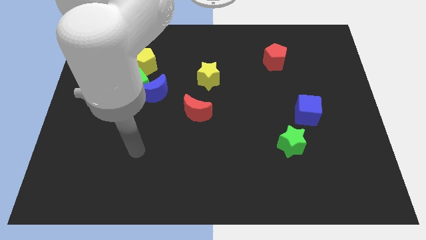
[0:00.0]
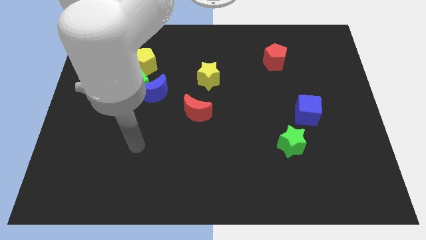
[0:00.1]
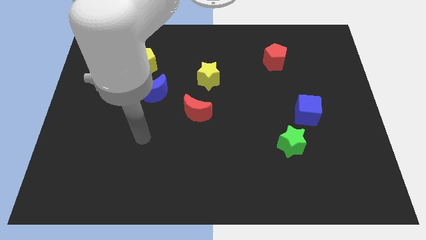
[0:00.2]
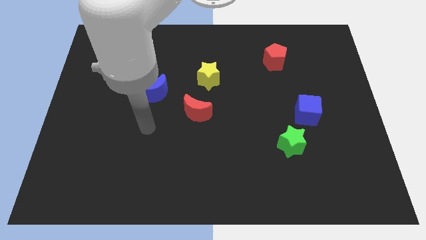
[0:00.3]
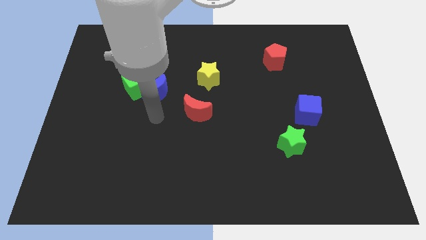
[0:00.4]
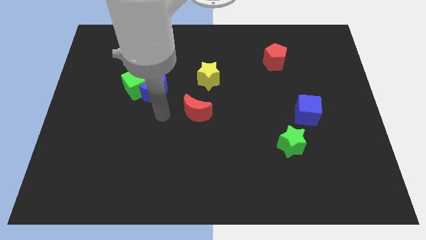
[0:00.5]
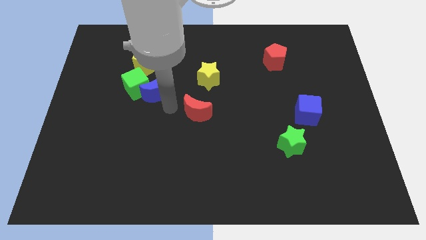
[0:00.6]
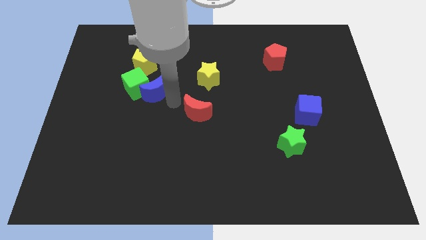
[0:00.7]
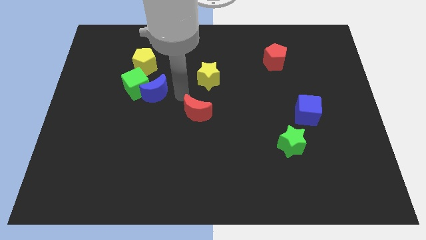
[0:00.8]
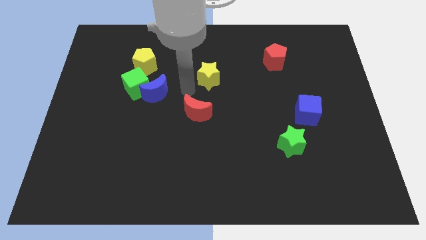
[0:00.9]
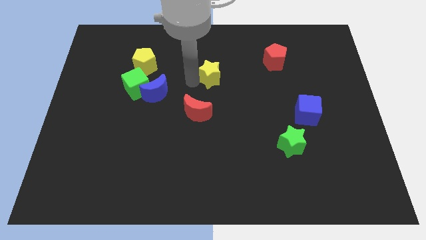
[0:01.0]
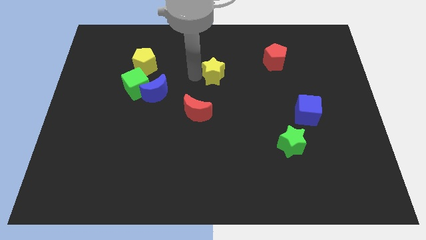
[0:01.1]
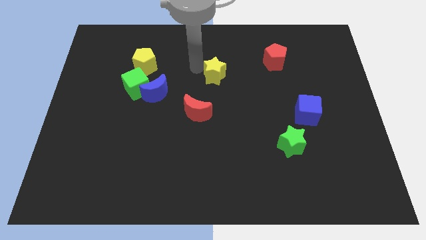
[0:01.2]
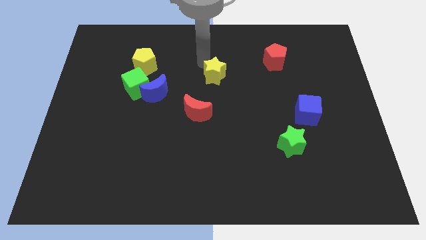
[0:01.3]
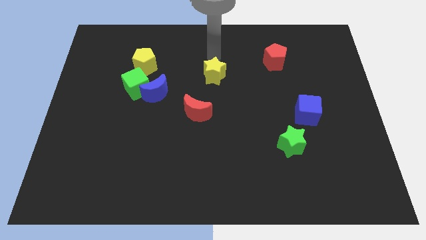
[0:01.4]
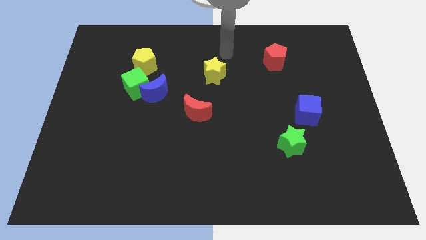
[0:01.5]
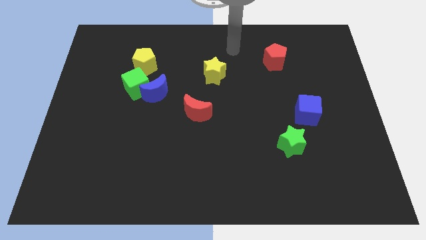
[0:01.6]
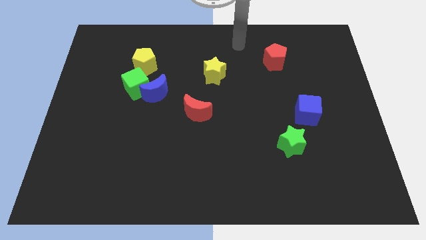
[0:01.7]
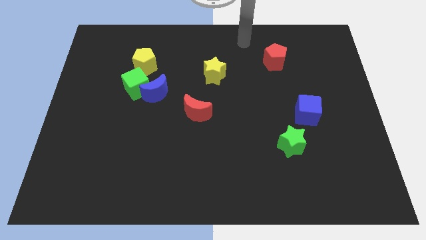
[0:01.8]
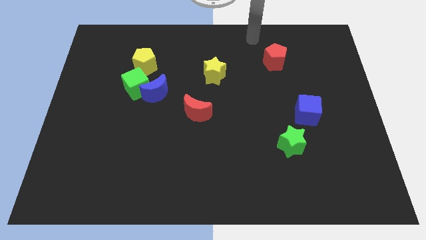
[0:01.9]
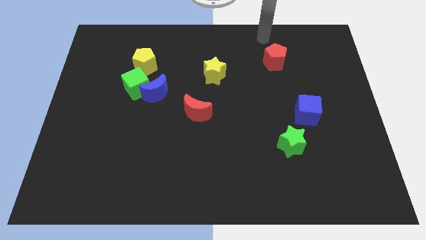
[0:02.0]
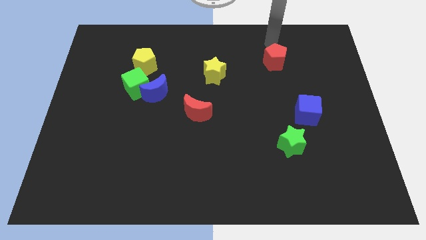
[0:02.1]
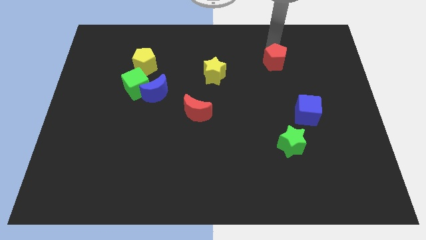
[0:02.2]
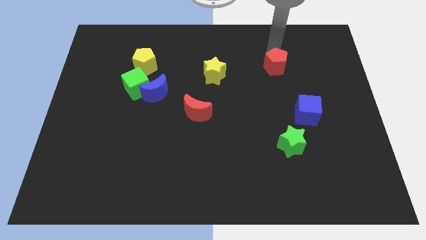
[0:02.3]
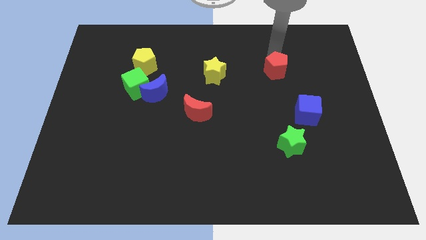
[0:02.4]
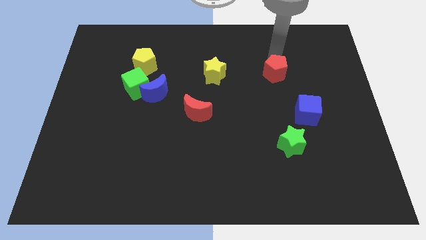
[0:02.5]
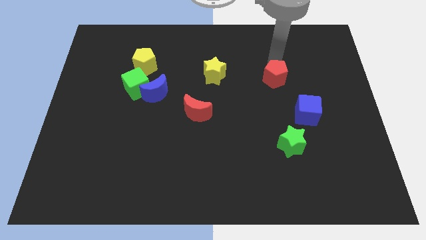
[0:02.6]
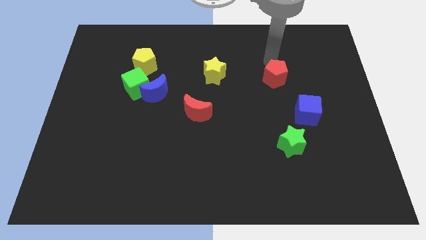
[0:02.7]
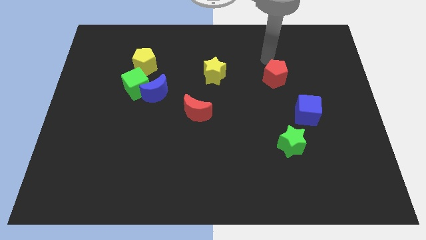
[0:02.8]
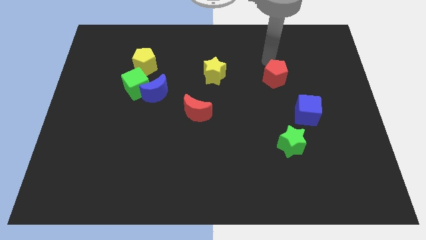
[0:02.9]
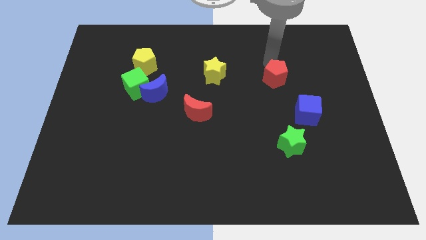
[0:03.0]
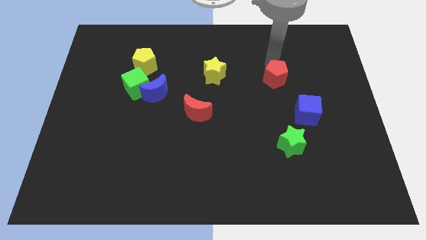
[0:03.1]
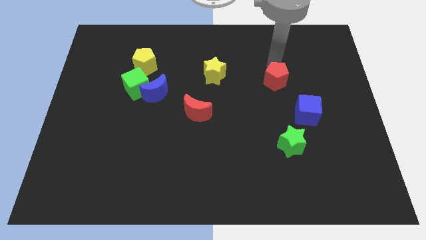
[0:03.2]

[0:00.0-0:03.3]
slide the red pentagon downwards a little bit

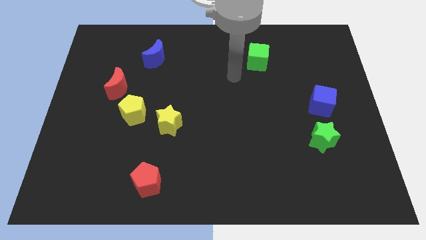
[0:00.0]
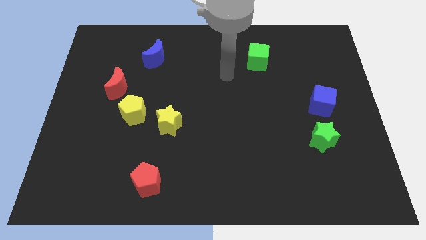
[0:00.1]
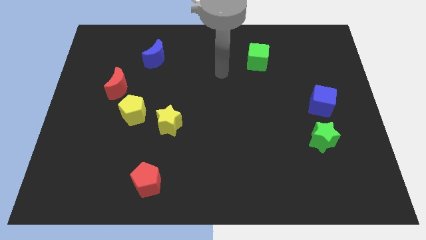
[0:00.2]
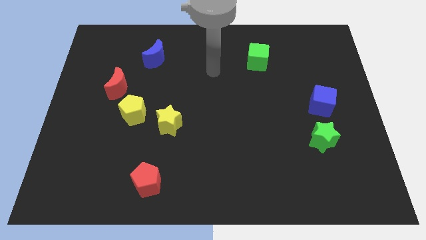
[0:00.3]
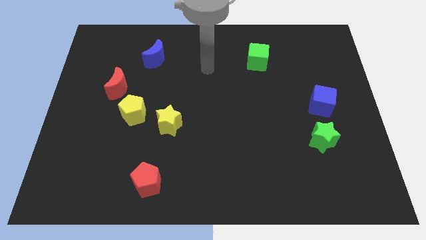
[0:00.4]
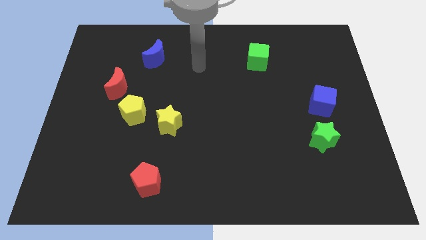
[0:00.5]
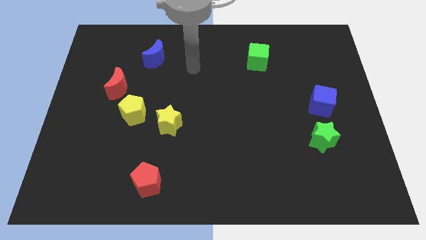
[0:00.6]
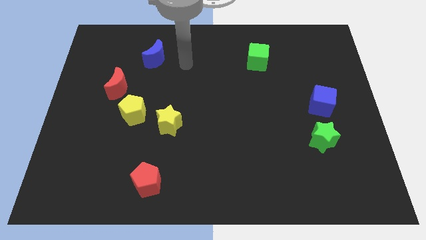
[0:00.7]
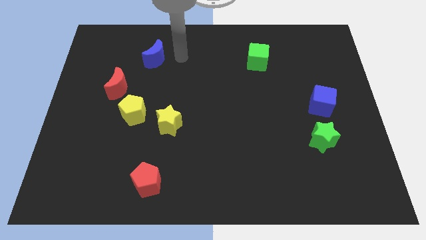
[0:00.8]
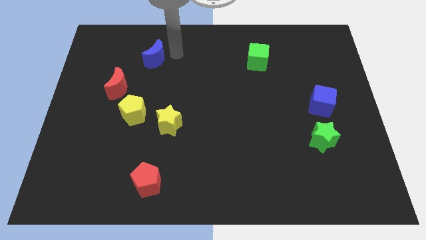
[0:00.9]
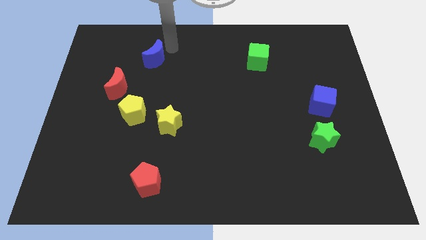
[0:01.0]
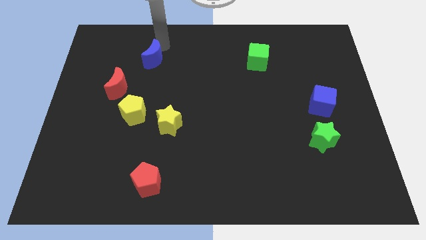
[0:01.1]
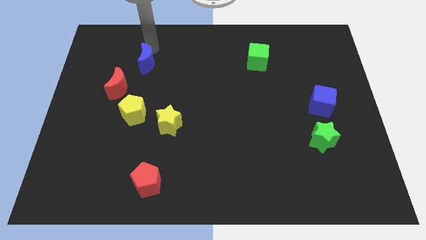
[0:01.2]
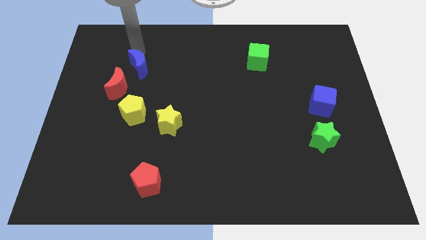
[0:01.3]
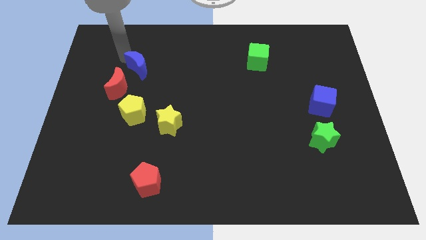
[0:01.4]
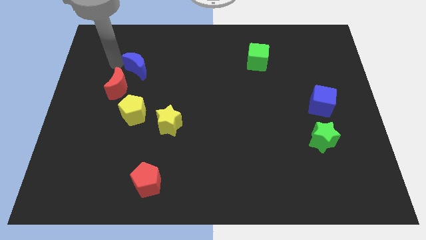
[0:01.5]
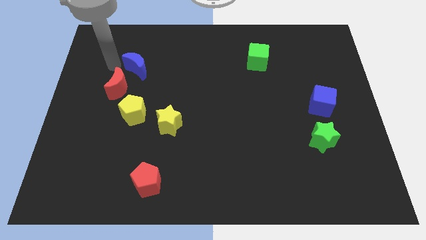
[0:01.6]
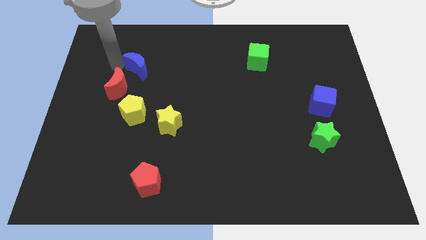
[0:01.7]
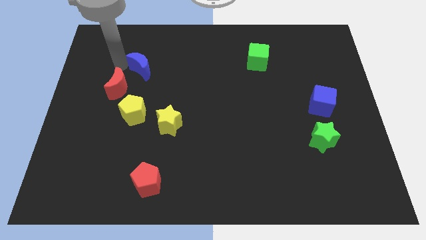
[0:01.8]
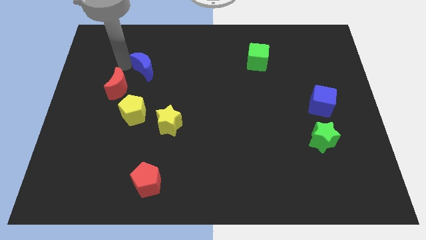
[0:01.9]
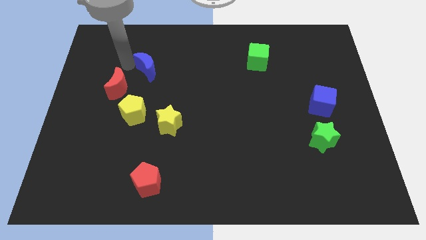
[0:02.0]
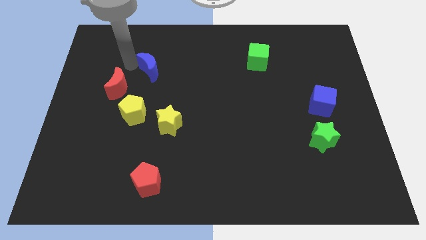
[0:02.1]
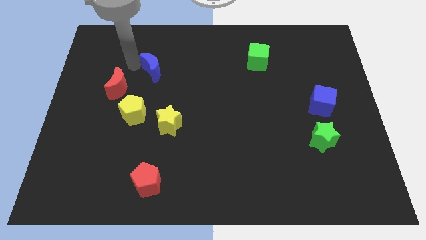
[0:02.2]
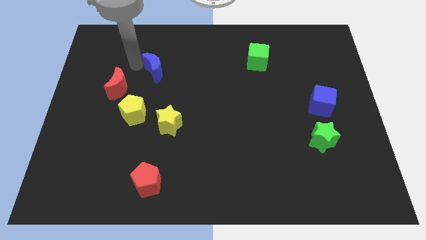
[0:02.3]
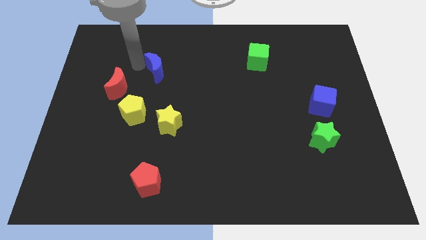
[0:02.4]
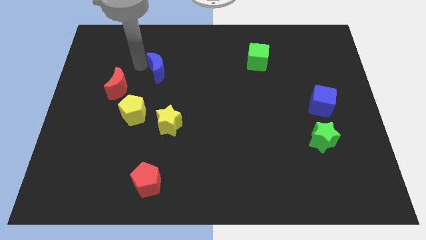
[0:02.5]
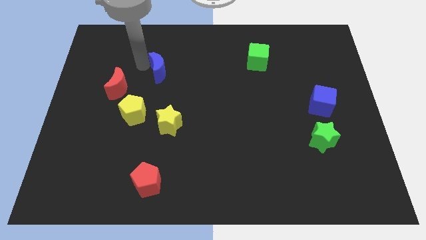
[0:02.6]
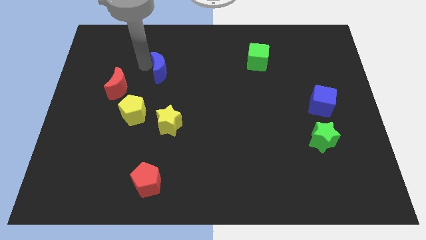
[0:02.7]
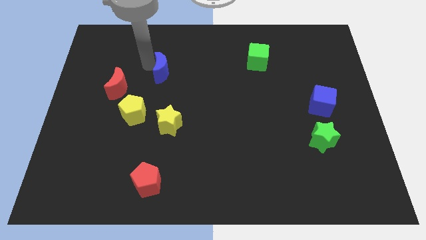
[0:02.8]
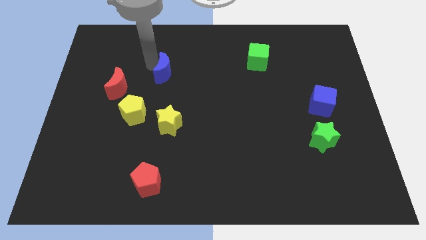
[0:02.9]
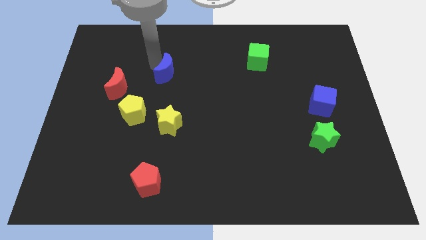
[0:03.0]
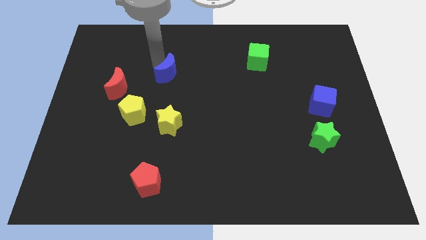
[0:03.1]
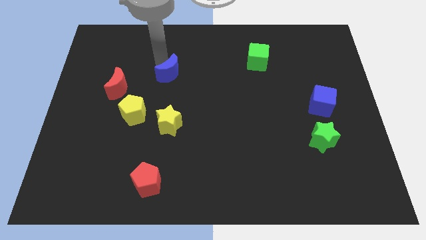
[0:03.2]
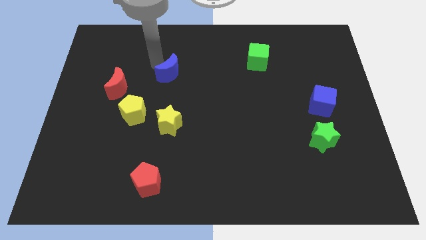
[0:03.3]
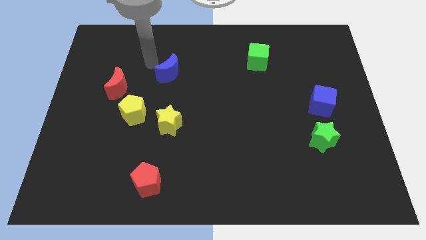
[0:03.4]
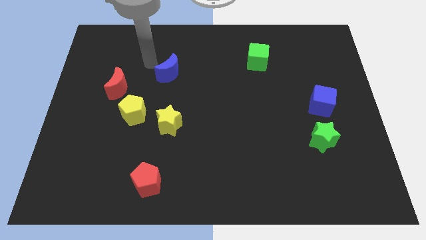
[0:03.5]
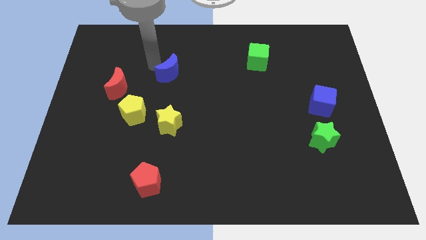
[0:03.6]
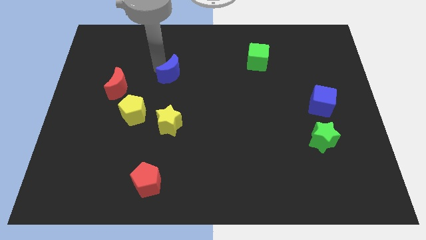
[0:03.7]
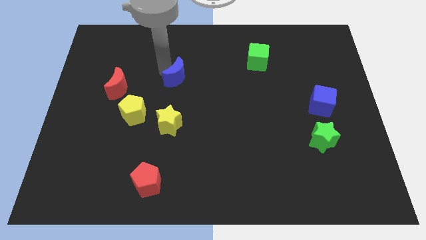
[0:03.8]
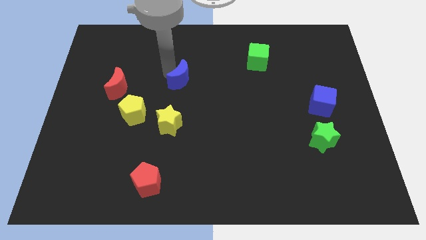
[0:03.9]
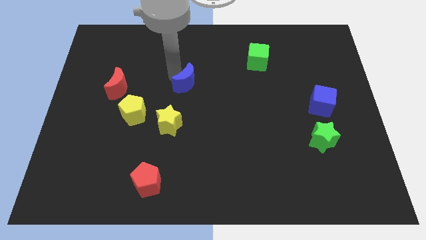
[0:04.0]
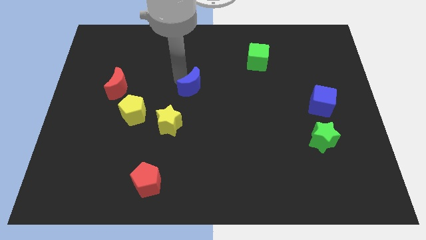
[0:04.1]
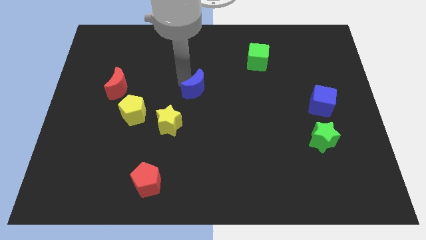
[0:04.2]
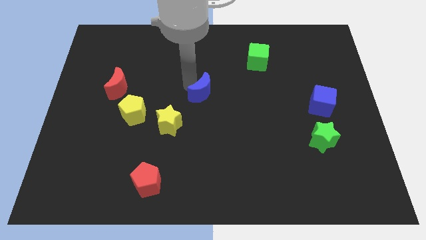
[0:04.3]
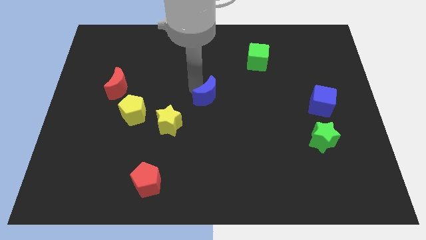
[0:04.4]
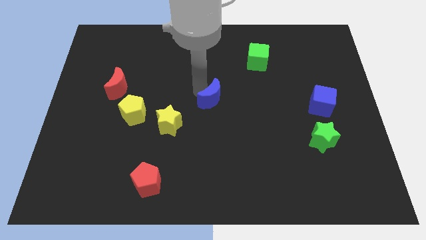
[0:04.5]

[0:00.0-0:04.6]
slide the blue moon down and to the right

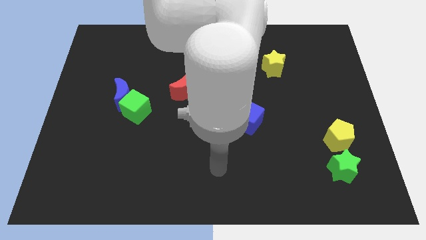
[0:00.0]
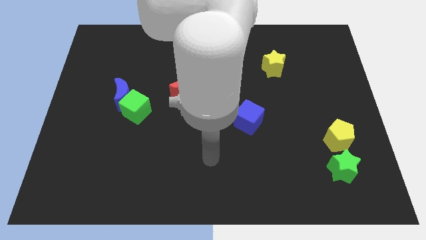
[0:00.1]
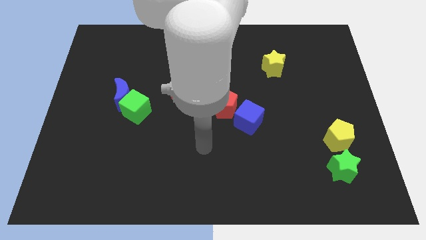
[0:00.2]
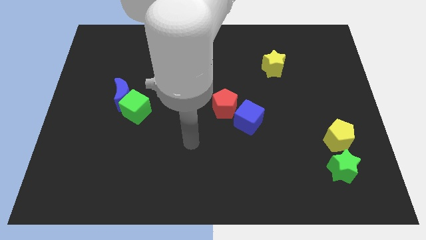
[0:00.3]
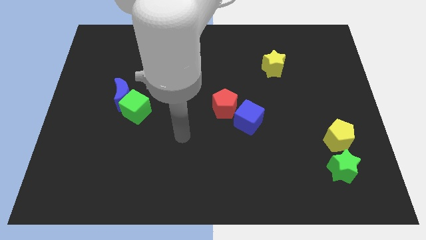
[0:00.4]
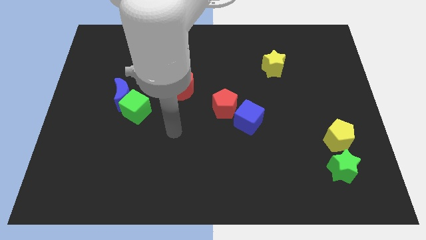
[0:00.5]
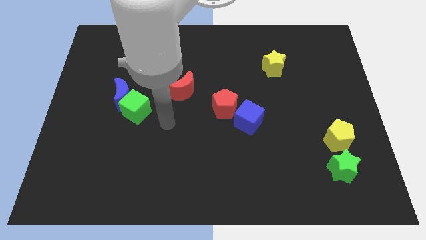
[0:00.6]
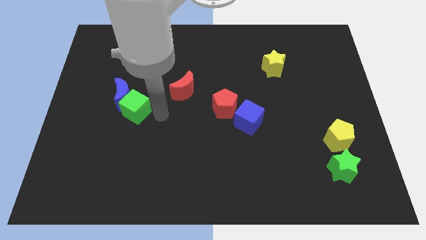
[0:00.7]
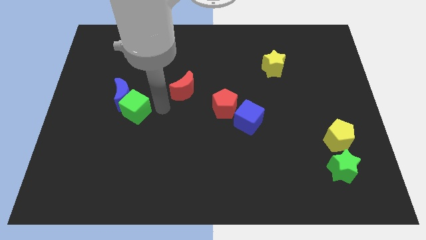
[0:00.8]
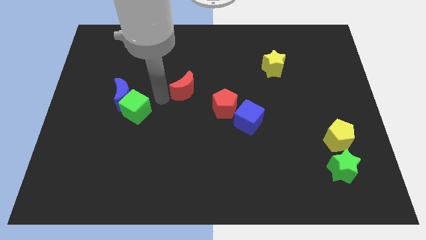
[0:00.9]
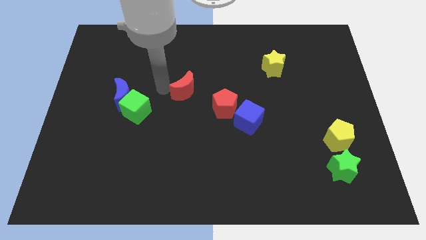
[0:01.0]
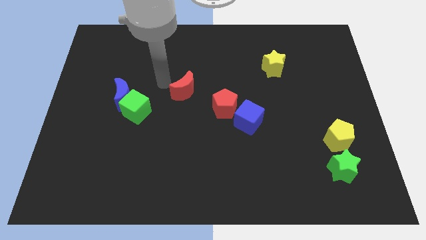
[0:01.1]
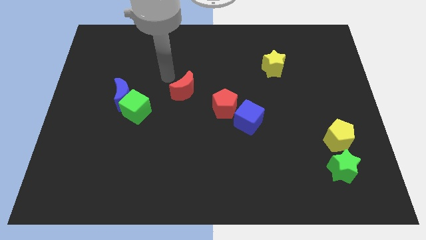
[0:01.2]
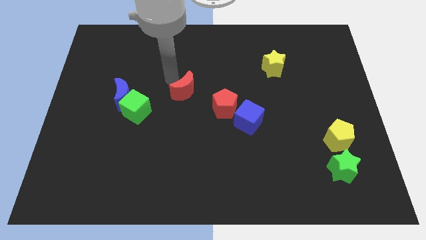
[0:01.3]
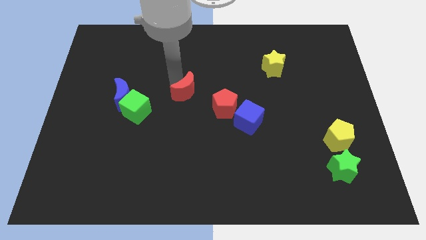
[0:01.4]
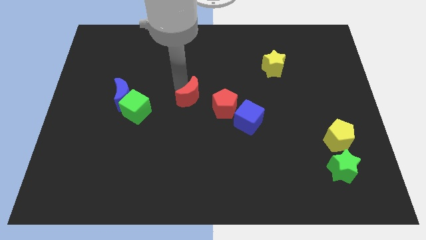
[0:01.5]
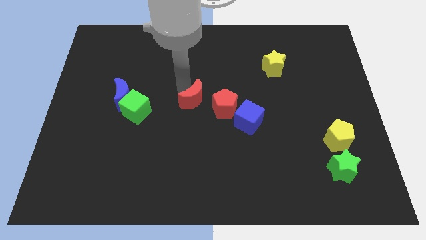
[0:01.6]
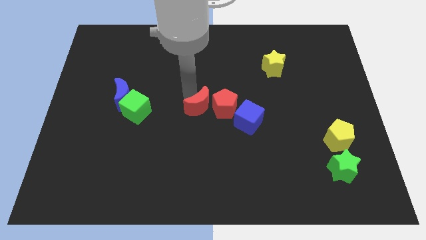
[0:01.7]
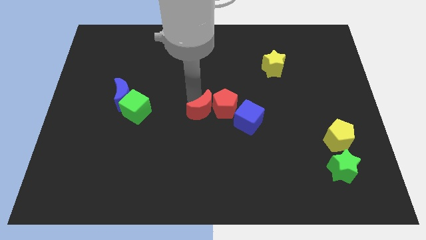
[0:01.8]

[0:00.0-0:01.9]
slightly slide the red moon downwards and to the right
